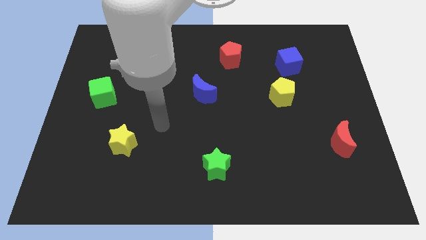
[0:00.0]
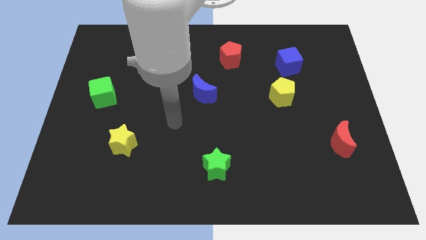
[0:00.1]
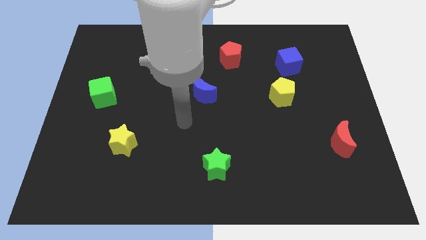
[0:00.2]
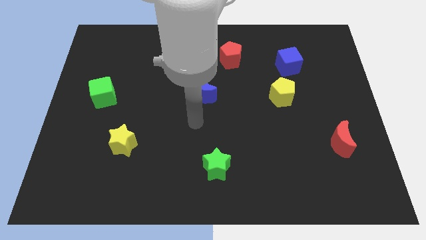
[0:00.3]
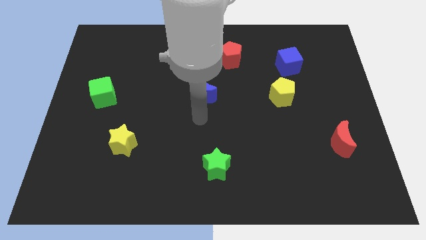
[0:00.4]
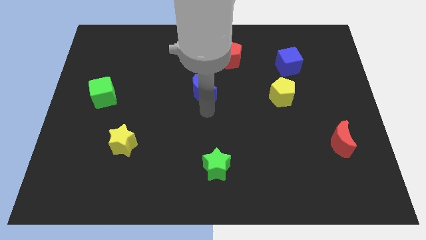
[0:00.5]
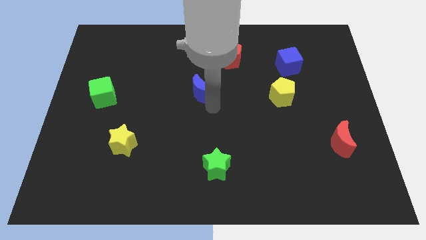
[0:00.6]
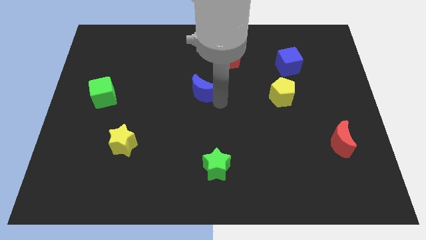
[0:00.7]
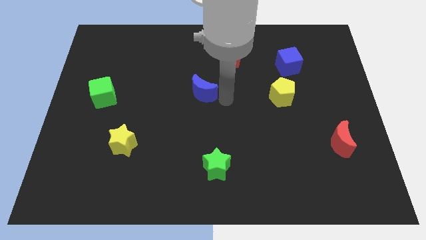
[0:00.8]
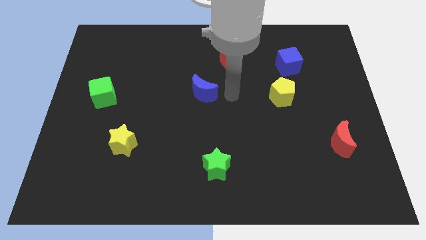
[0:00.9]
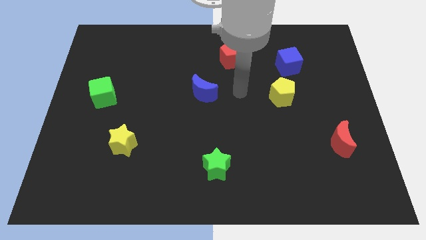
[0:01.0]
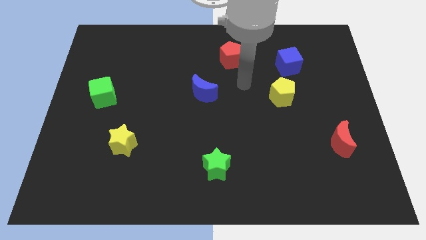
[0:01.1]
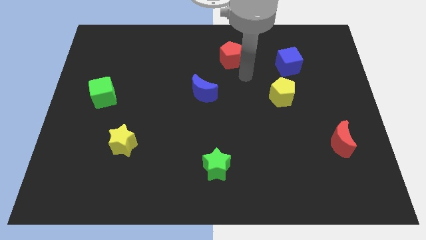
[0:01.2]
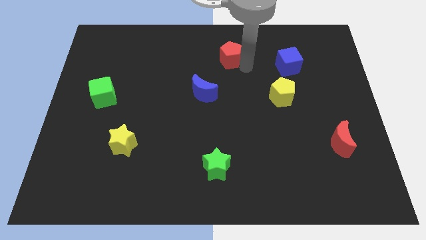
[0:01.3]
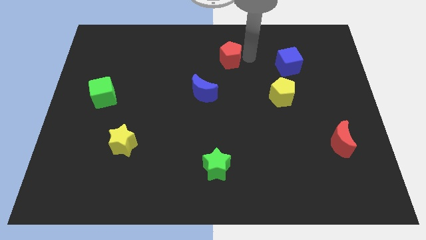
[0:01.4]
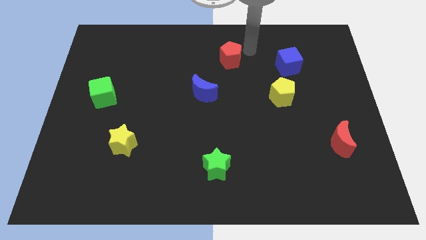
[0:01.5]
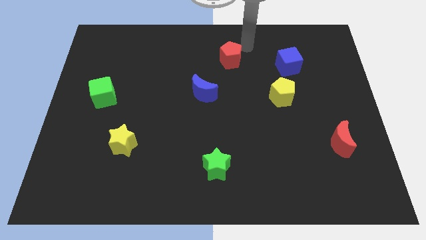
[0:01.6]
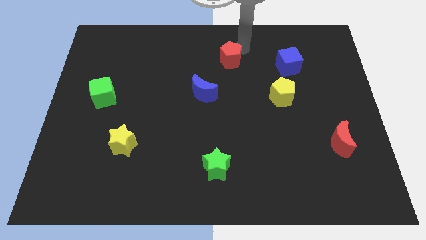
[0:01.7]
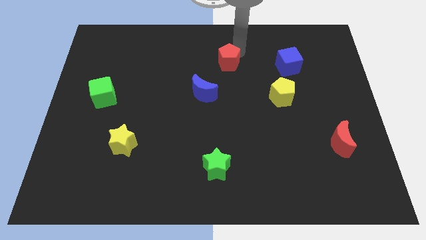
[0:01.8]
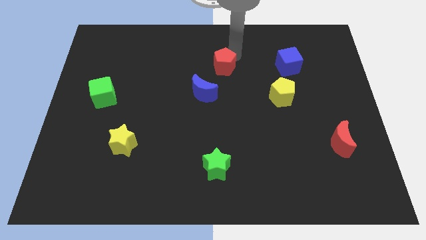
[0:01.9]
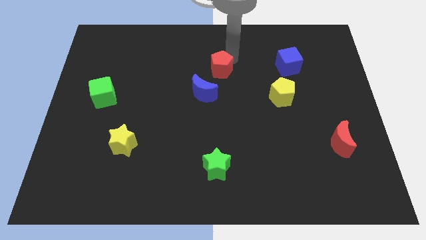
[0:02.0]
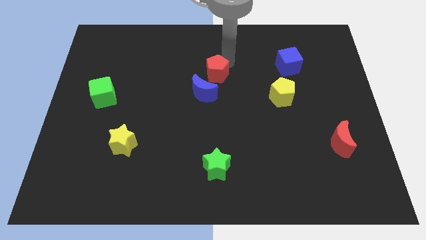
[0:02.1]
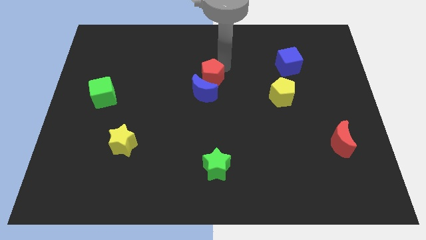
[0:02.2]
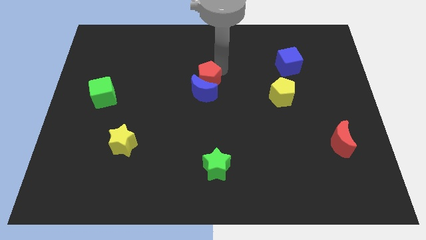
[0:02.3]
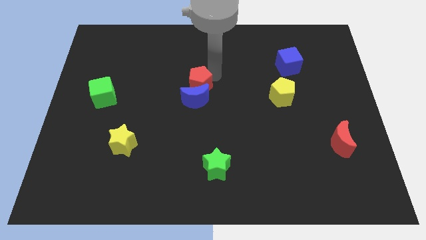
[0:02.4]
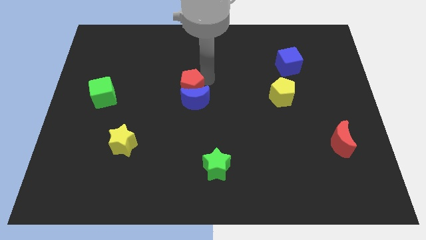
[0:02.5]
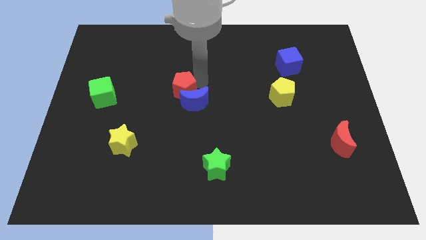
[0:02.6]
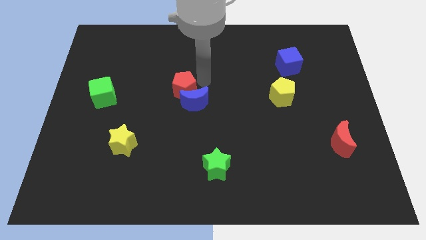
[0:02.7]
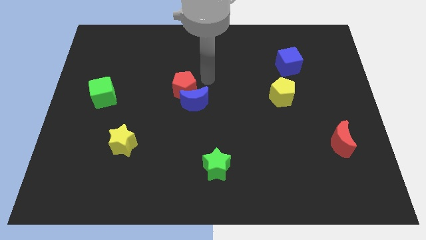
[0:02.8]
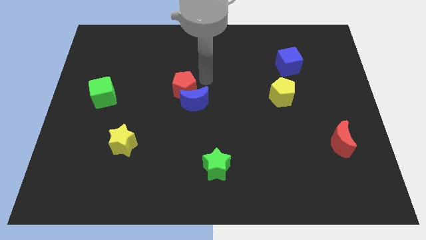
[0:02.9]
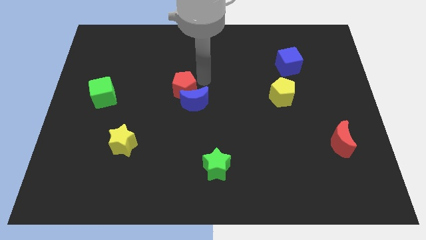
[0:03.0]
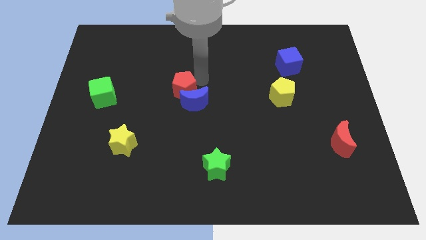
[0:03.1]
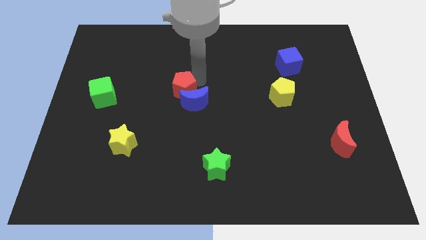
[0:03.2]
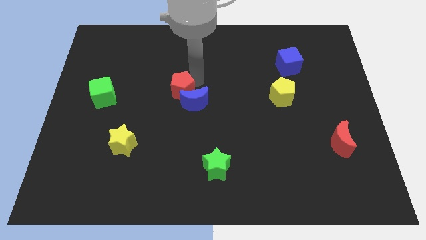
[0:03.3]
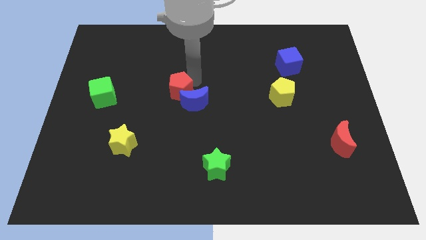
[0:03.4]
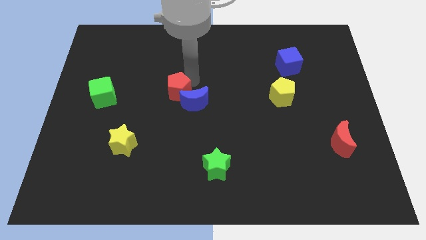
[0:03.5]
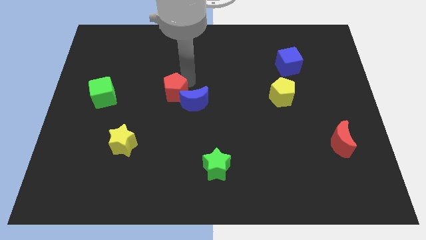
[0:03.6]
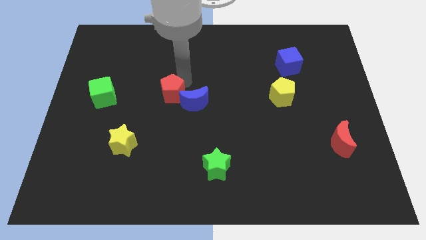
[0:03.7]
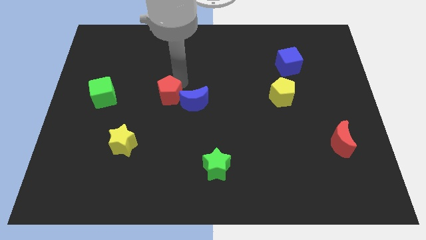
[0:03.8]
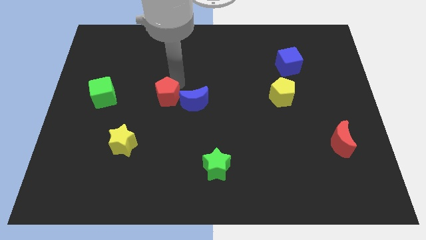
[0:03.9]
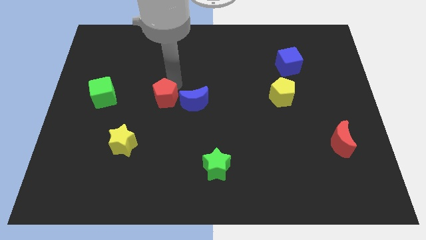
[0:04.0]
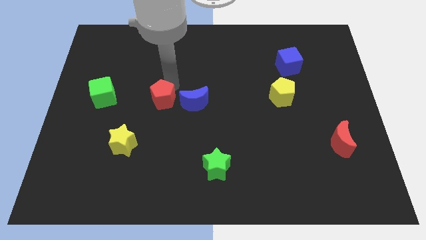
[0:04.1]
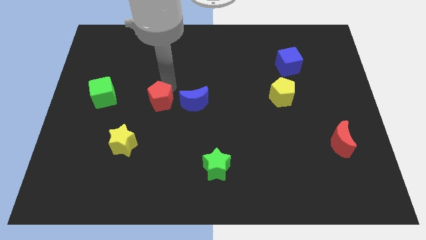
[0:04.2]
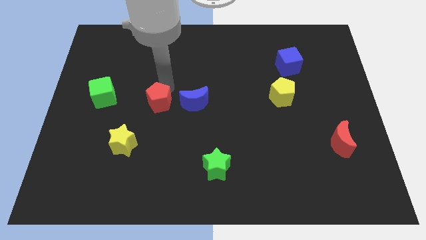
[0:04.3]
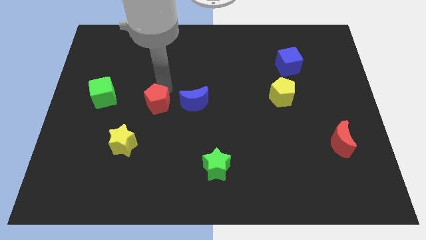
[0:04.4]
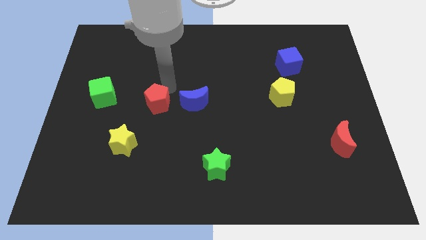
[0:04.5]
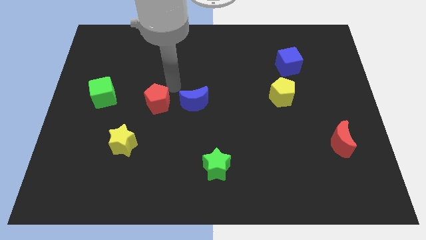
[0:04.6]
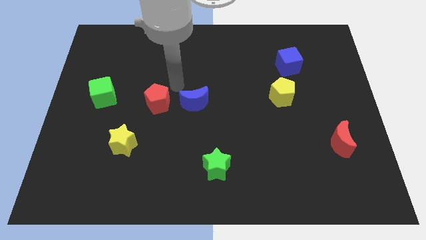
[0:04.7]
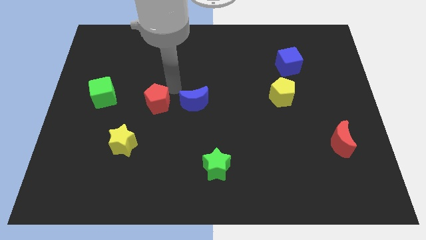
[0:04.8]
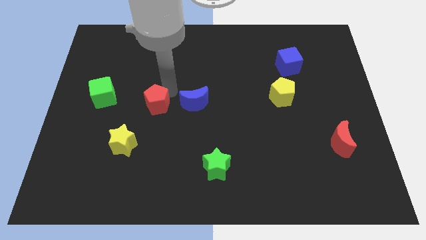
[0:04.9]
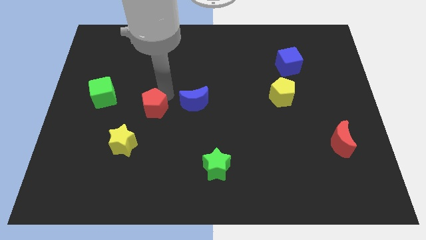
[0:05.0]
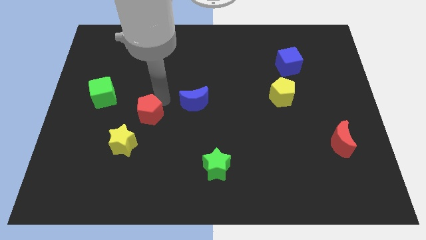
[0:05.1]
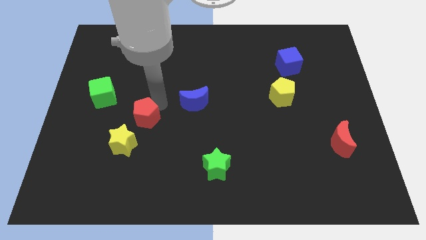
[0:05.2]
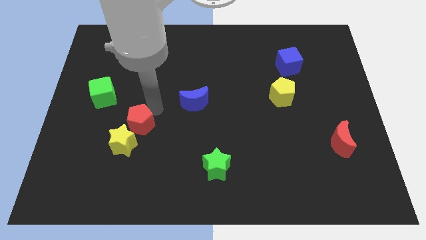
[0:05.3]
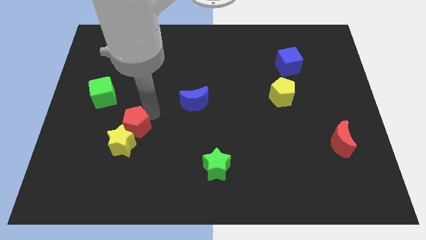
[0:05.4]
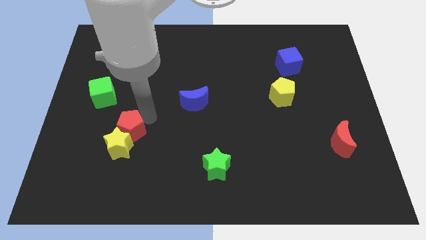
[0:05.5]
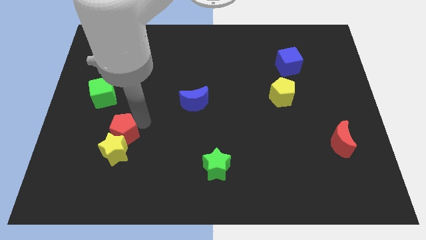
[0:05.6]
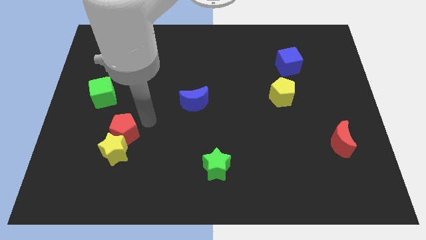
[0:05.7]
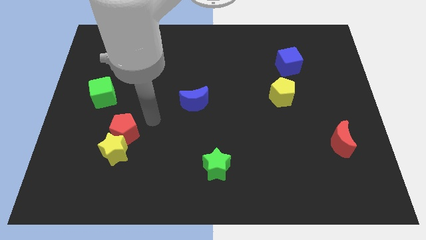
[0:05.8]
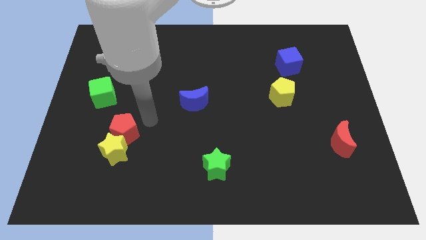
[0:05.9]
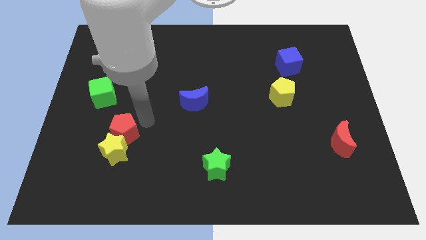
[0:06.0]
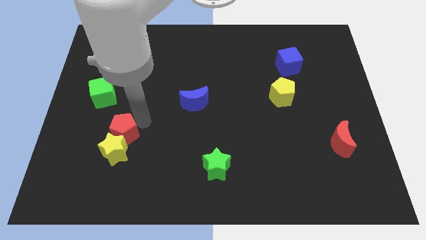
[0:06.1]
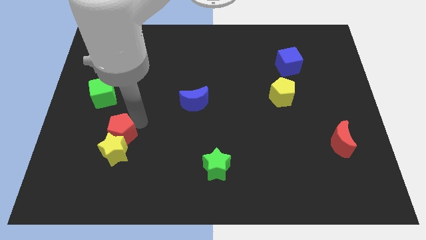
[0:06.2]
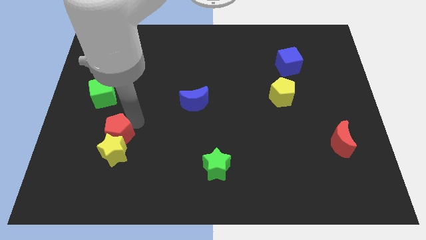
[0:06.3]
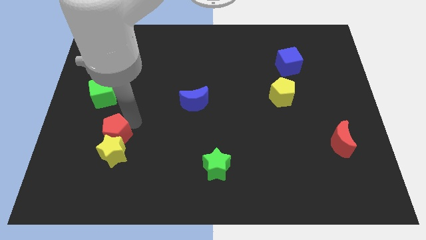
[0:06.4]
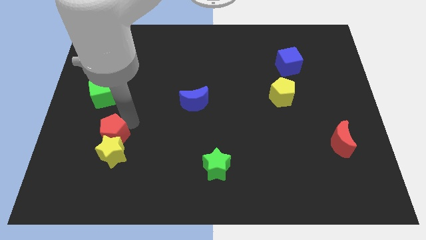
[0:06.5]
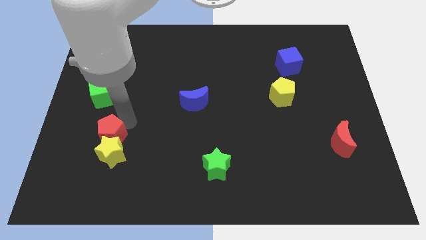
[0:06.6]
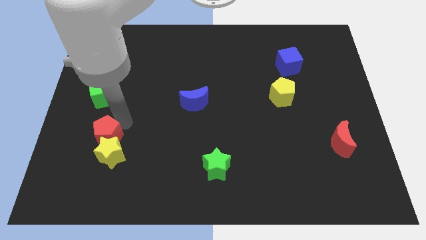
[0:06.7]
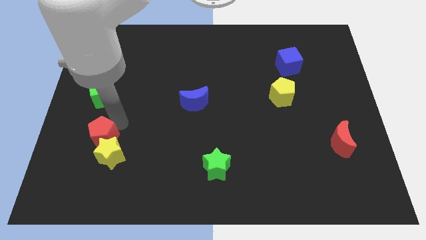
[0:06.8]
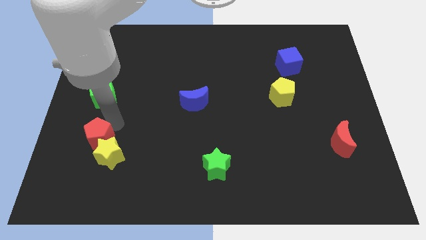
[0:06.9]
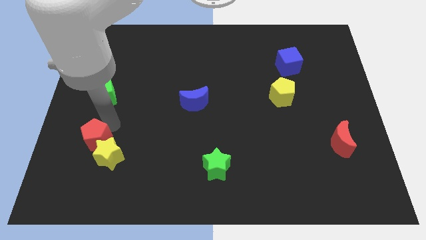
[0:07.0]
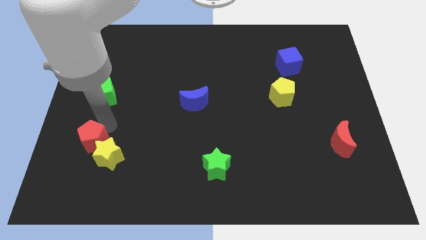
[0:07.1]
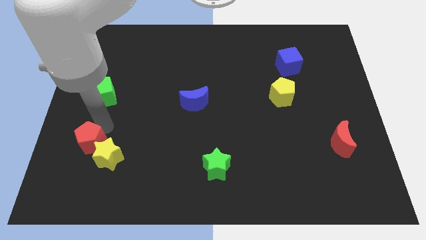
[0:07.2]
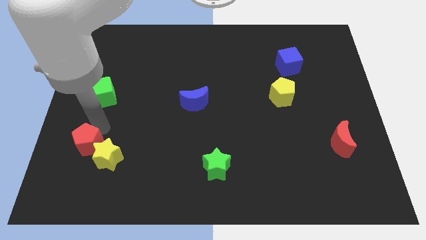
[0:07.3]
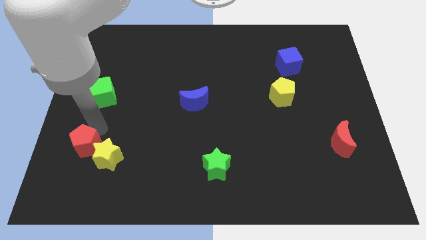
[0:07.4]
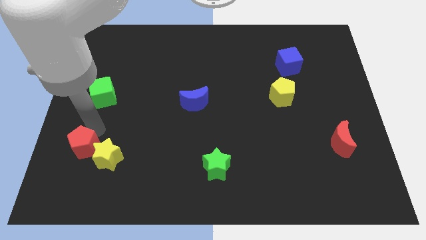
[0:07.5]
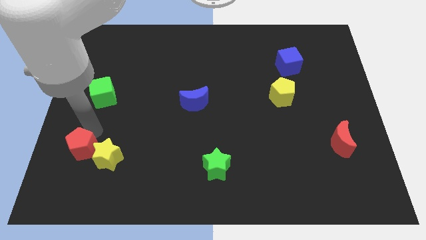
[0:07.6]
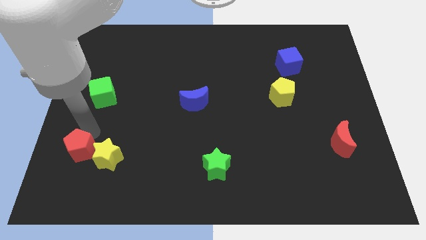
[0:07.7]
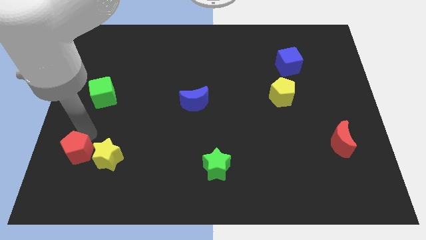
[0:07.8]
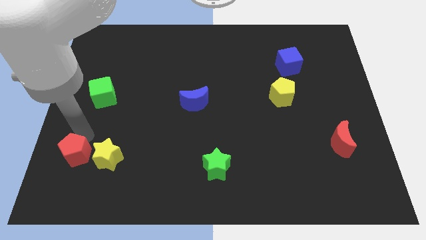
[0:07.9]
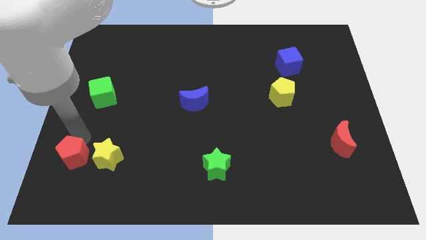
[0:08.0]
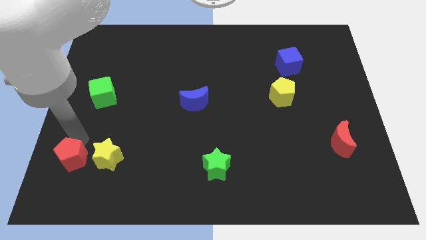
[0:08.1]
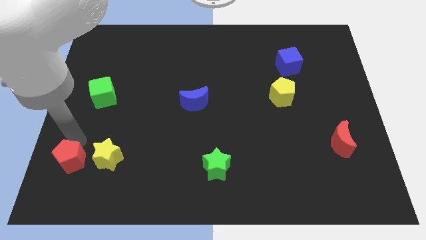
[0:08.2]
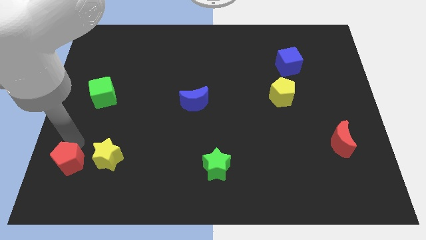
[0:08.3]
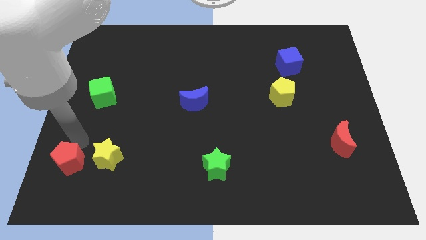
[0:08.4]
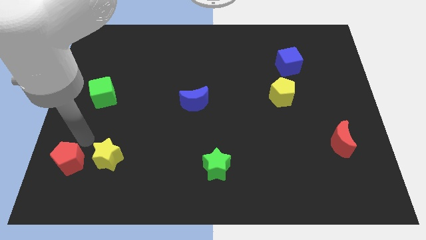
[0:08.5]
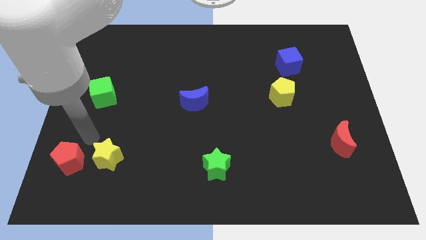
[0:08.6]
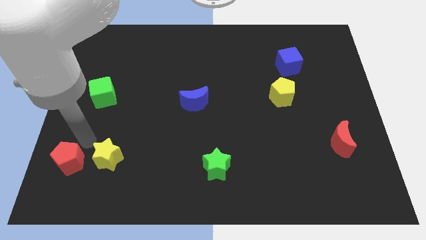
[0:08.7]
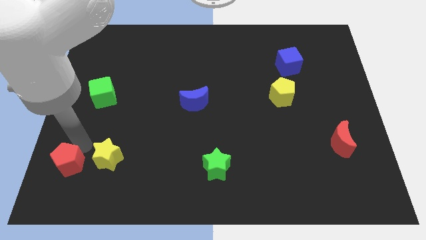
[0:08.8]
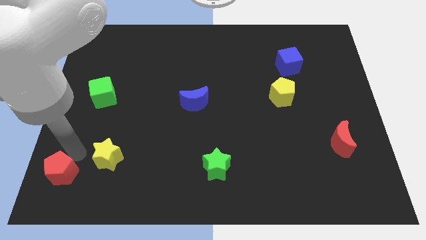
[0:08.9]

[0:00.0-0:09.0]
slide the red pentagon to the lower left corner
